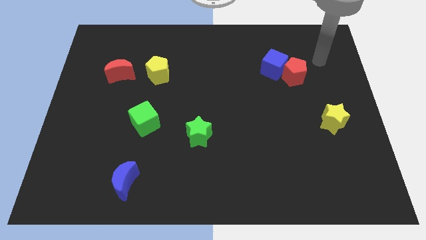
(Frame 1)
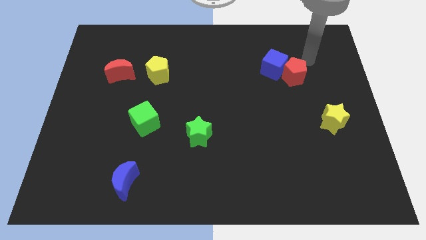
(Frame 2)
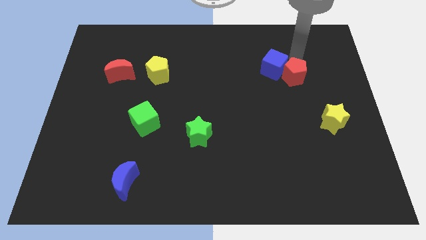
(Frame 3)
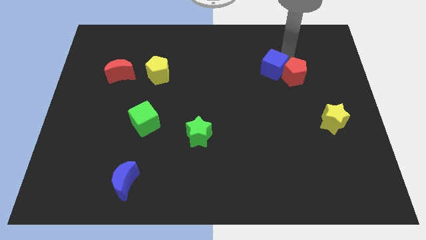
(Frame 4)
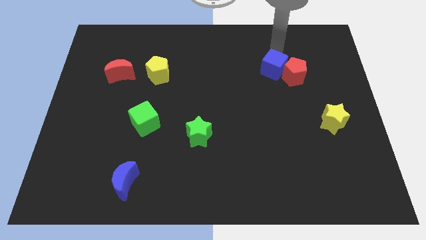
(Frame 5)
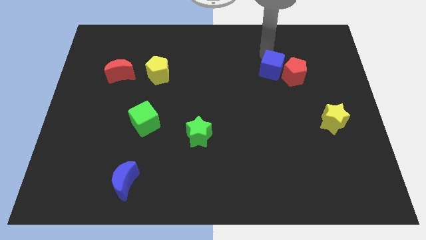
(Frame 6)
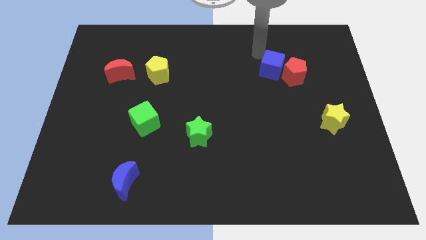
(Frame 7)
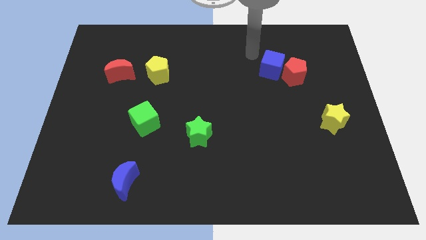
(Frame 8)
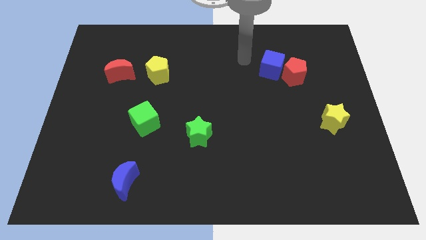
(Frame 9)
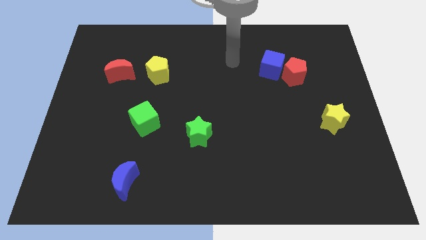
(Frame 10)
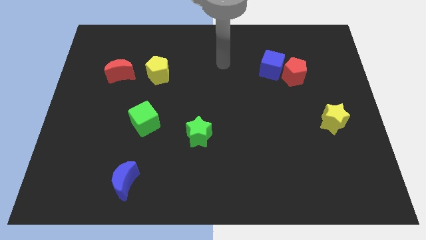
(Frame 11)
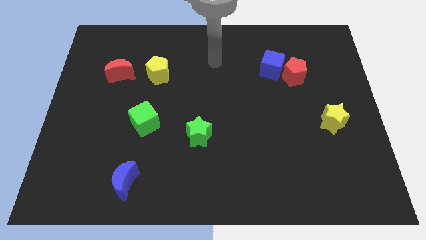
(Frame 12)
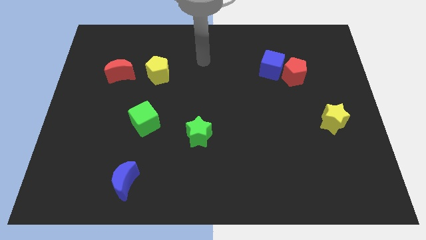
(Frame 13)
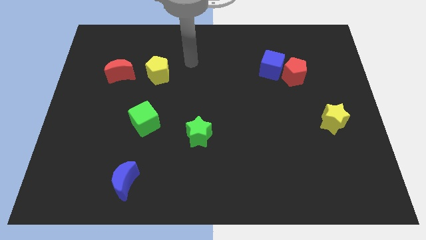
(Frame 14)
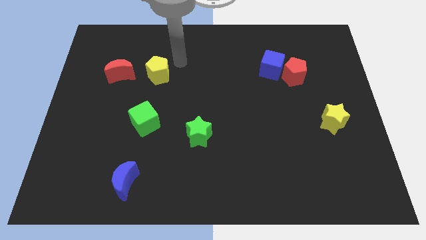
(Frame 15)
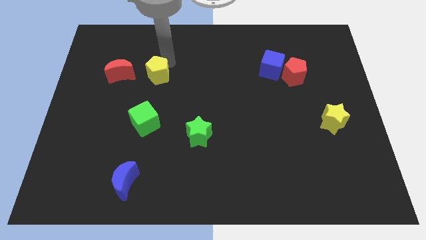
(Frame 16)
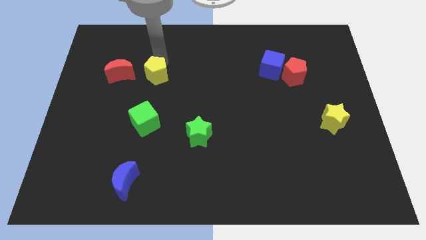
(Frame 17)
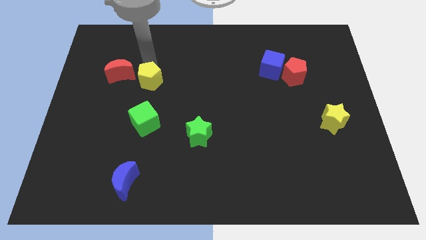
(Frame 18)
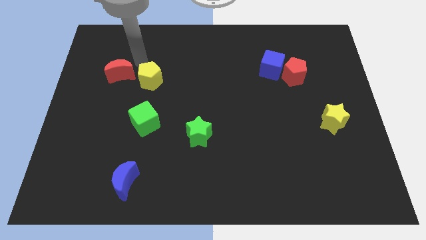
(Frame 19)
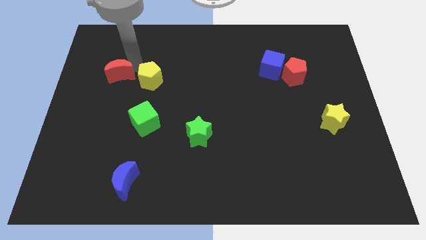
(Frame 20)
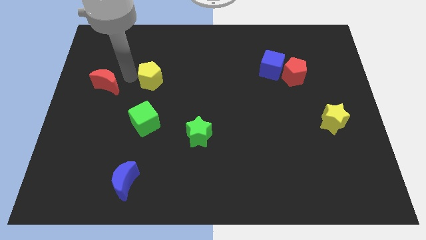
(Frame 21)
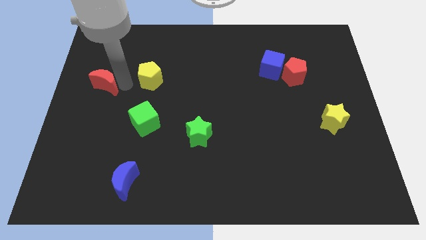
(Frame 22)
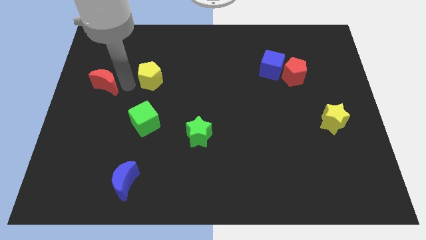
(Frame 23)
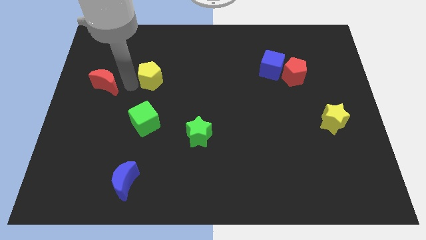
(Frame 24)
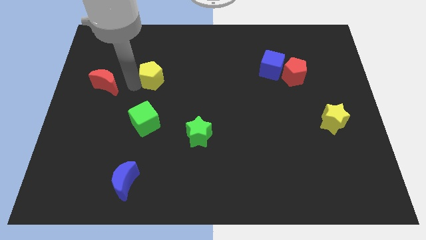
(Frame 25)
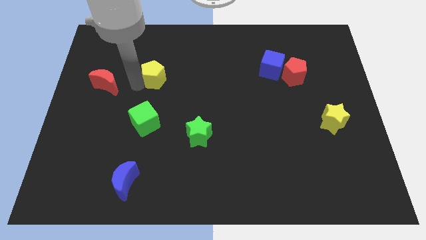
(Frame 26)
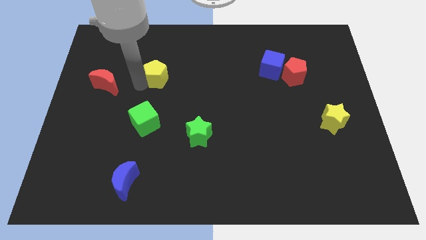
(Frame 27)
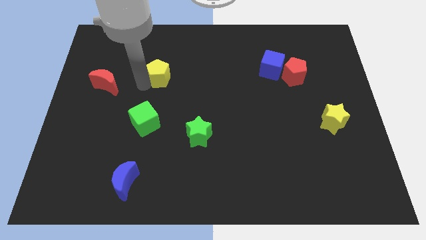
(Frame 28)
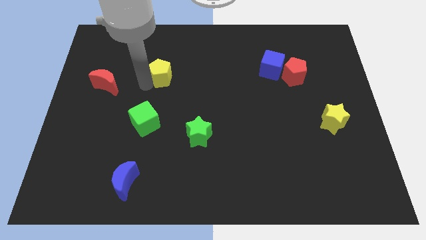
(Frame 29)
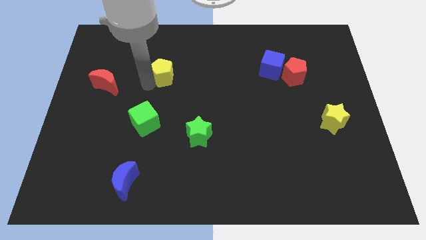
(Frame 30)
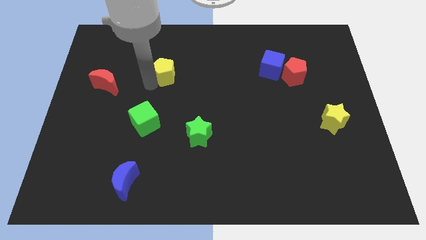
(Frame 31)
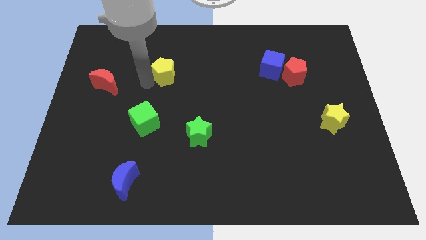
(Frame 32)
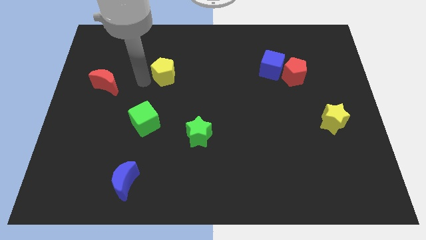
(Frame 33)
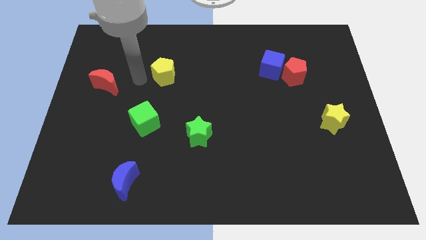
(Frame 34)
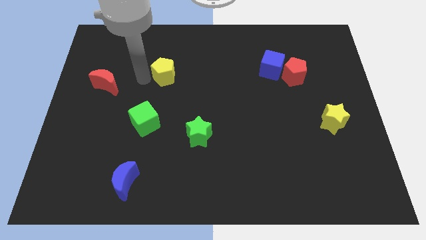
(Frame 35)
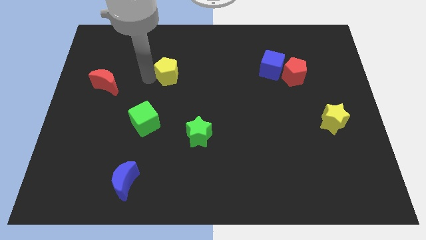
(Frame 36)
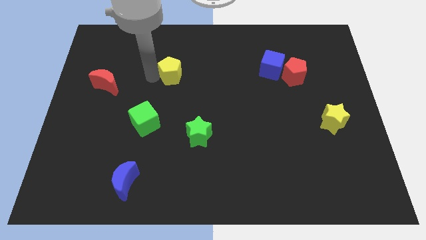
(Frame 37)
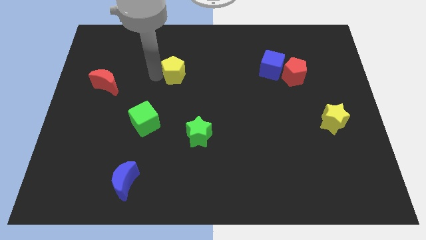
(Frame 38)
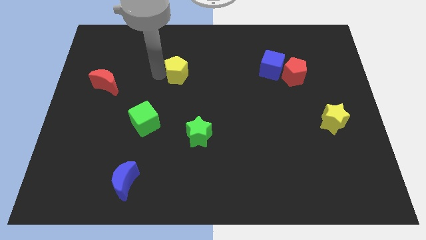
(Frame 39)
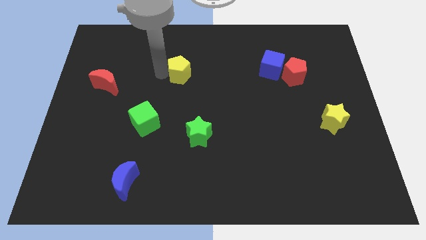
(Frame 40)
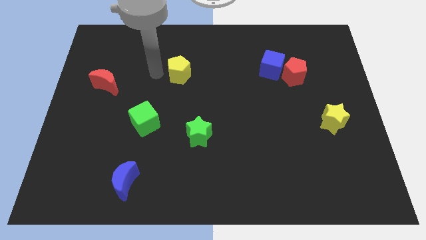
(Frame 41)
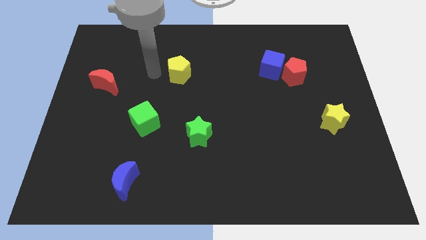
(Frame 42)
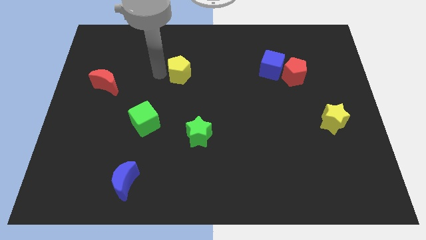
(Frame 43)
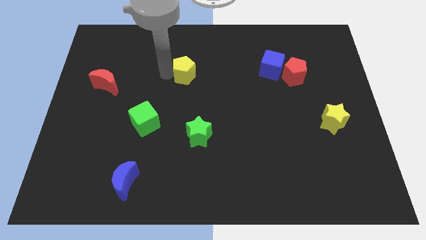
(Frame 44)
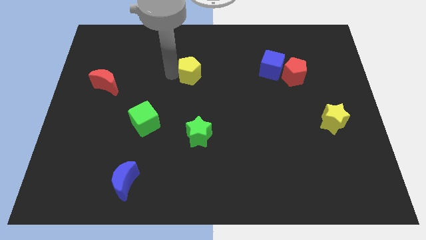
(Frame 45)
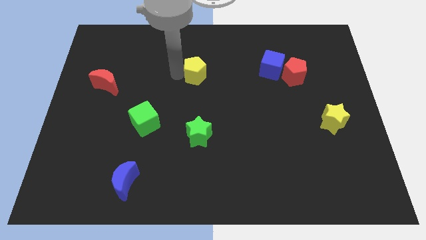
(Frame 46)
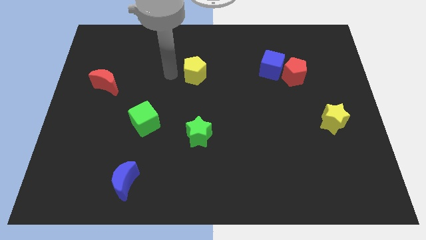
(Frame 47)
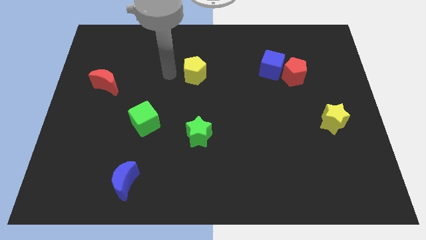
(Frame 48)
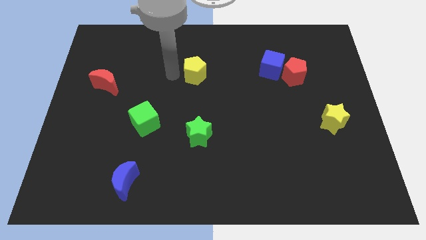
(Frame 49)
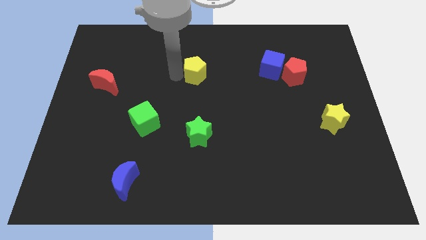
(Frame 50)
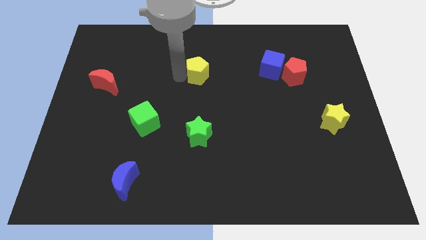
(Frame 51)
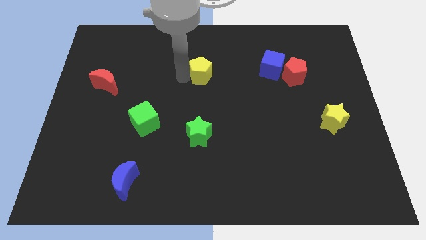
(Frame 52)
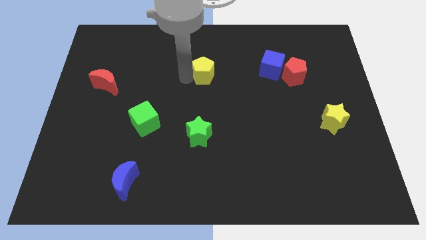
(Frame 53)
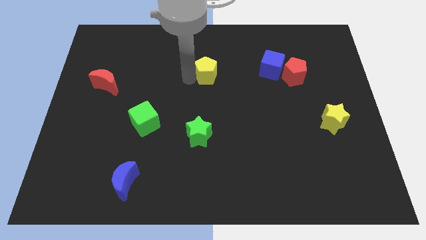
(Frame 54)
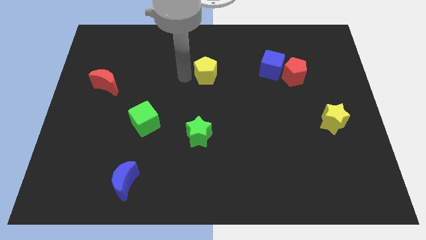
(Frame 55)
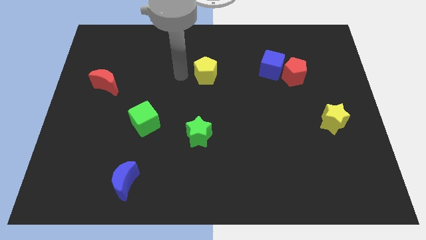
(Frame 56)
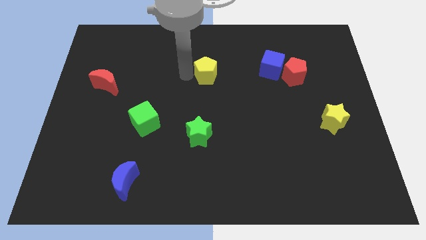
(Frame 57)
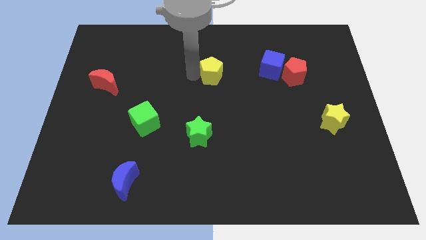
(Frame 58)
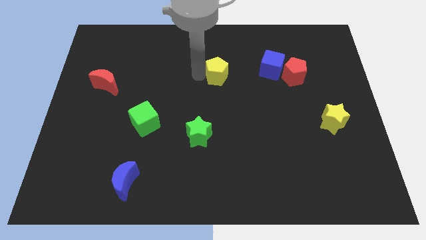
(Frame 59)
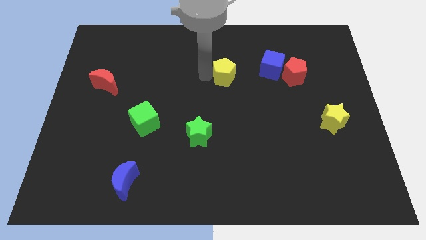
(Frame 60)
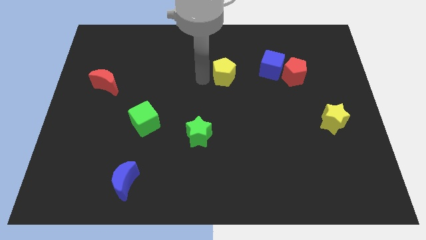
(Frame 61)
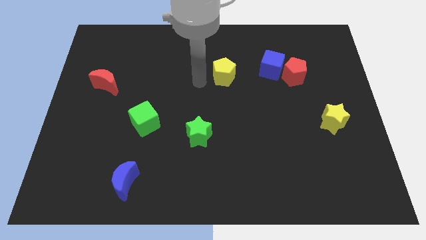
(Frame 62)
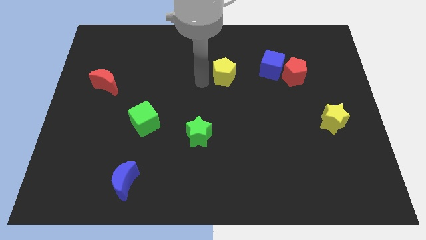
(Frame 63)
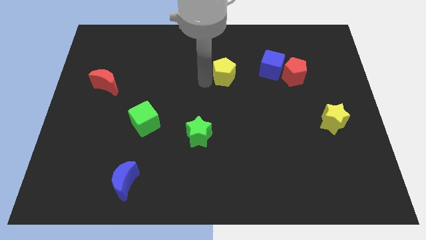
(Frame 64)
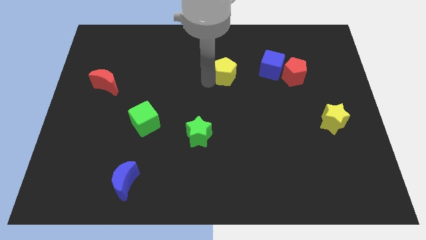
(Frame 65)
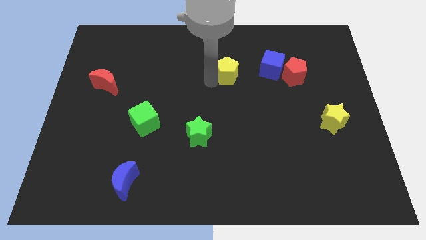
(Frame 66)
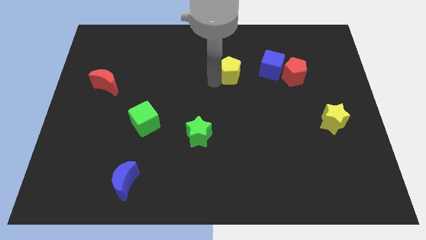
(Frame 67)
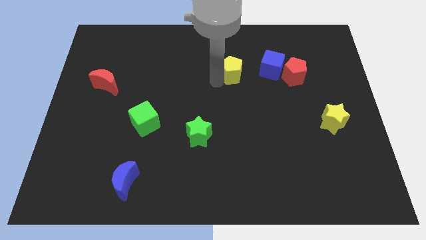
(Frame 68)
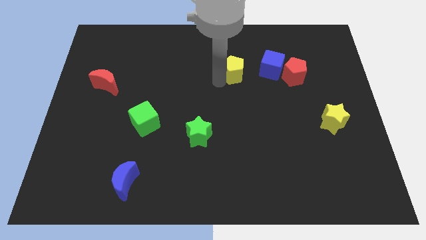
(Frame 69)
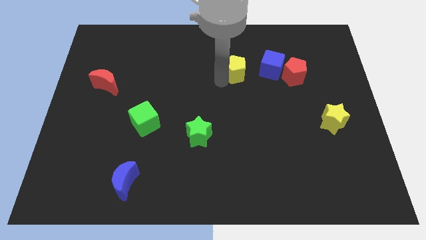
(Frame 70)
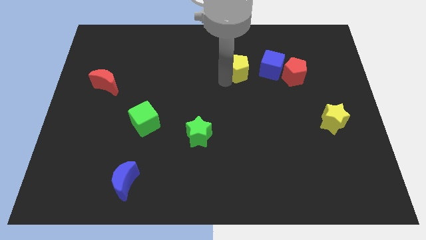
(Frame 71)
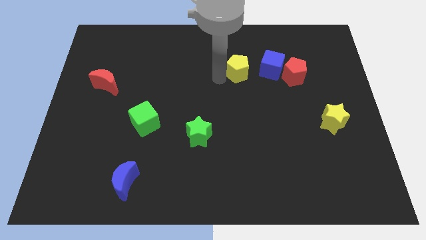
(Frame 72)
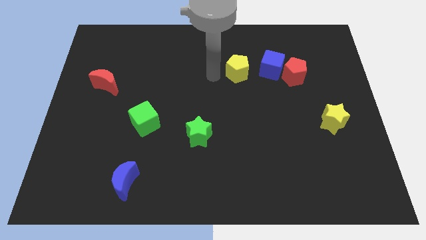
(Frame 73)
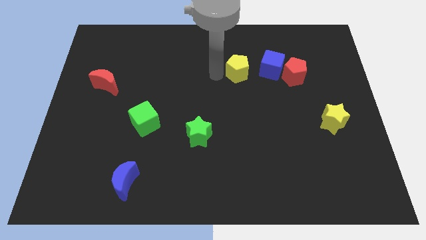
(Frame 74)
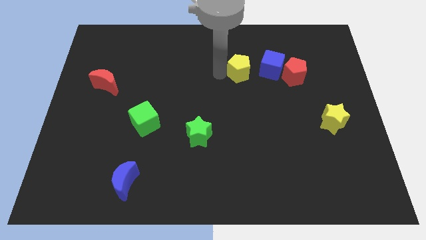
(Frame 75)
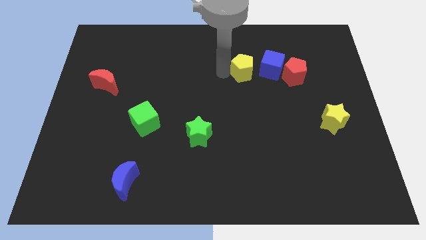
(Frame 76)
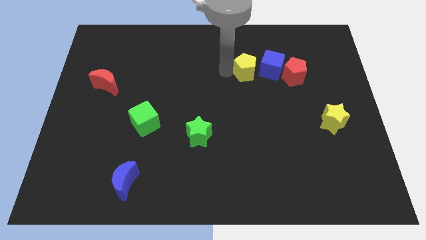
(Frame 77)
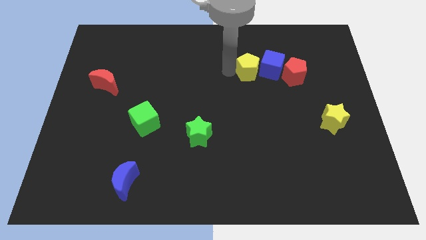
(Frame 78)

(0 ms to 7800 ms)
slide the yellow pentagon close to the blue cube

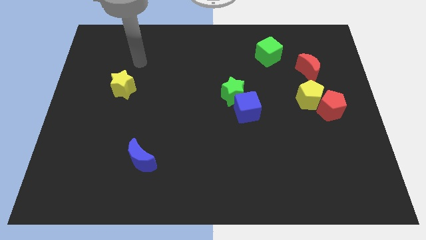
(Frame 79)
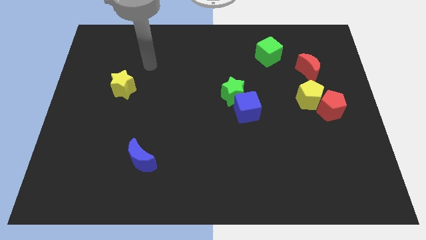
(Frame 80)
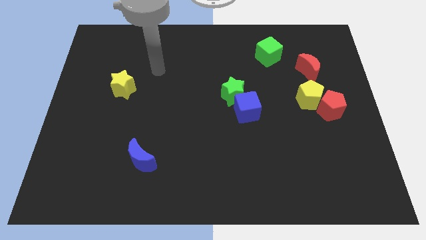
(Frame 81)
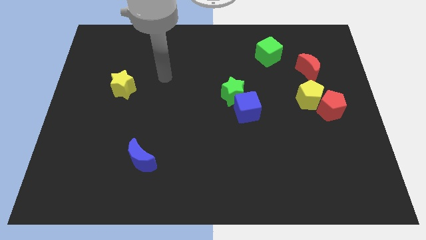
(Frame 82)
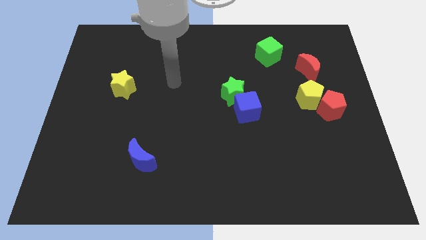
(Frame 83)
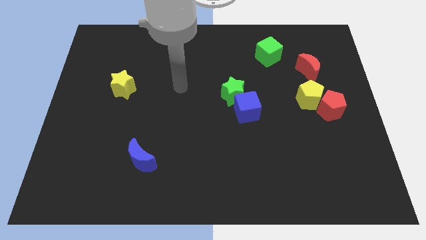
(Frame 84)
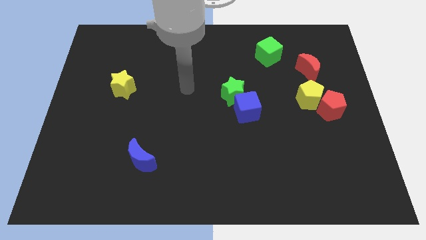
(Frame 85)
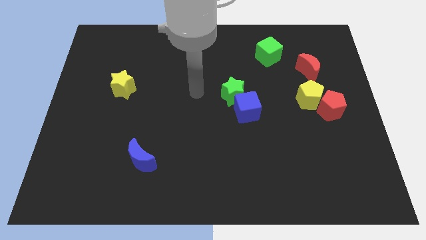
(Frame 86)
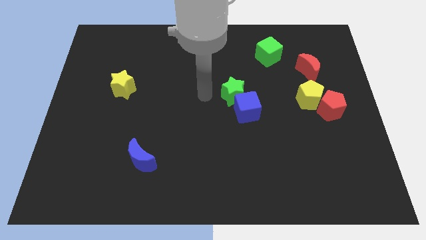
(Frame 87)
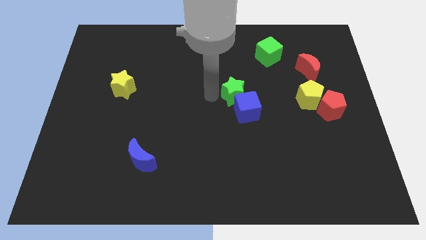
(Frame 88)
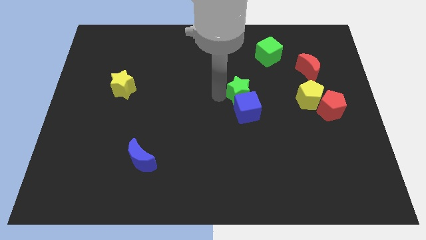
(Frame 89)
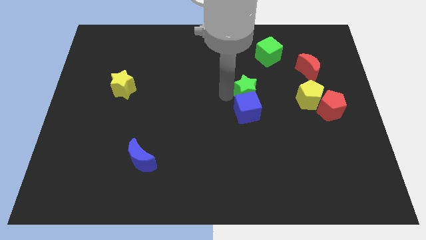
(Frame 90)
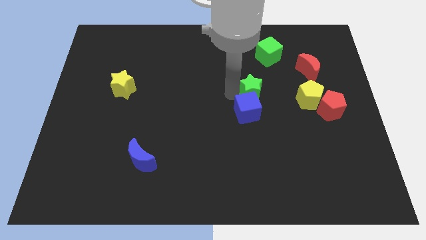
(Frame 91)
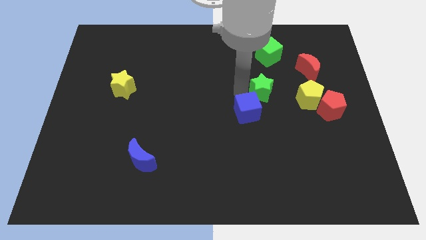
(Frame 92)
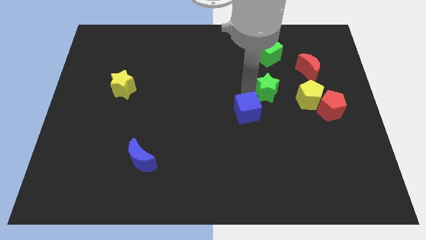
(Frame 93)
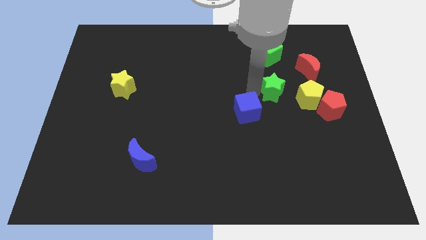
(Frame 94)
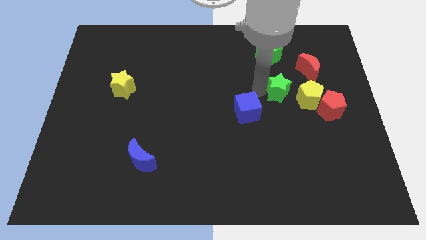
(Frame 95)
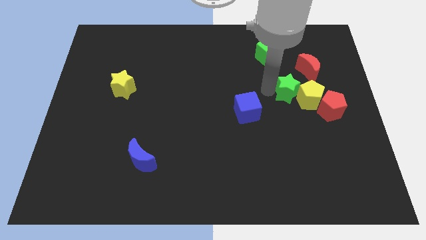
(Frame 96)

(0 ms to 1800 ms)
move the green star next to the yellow pentagon
